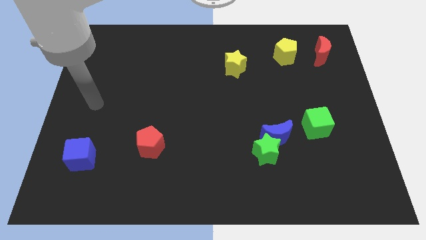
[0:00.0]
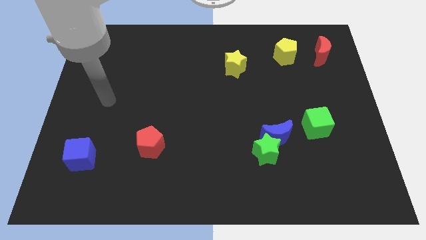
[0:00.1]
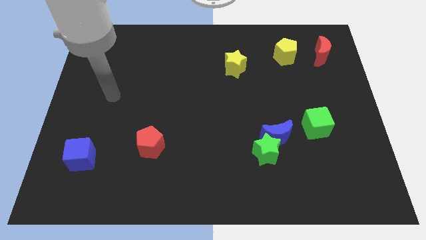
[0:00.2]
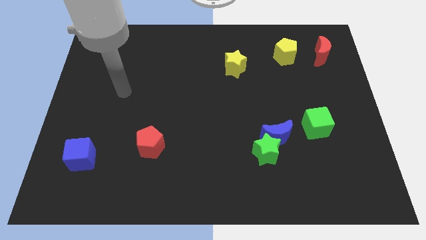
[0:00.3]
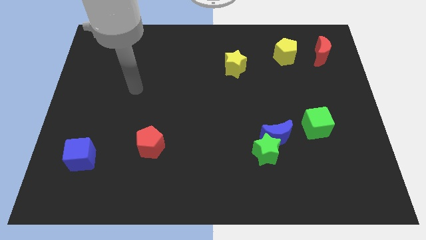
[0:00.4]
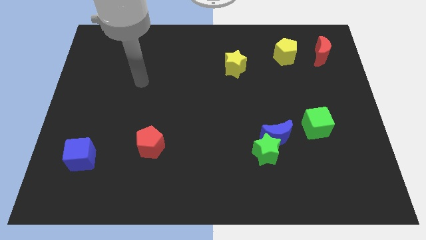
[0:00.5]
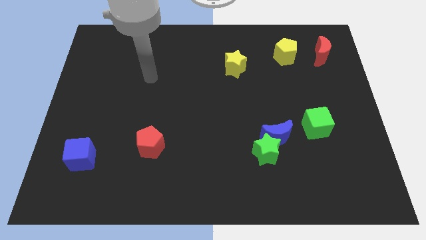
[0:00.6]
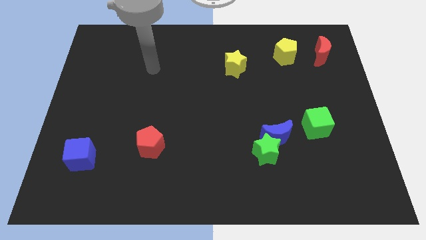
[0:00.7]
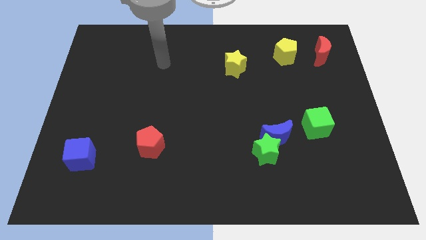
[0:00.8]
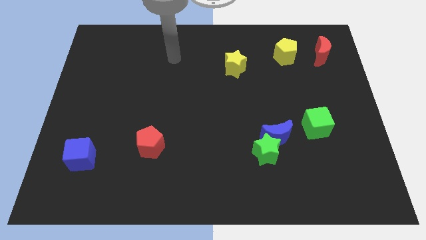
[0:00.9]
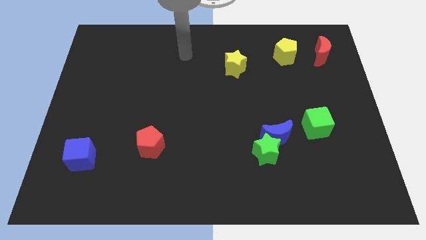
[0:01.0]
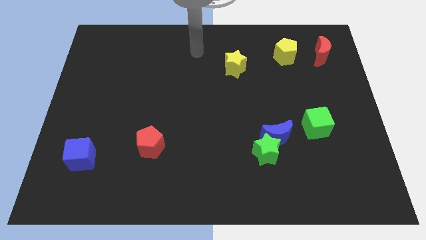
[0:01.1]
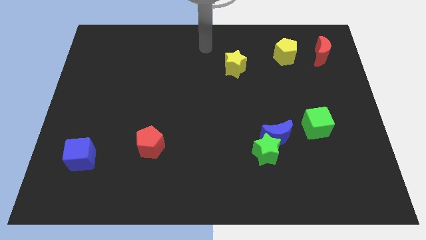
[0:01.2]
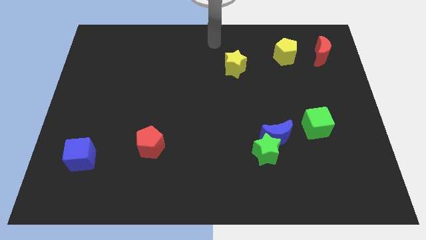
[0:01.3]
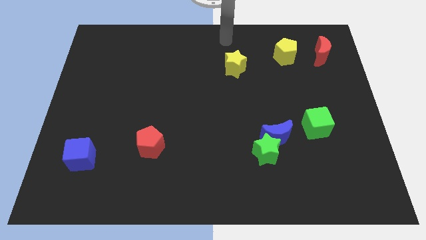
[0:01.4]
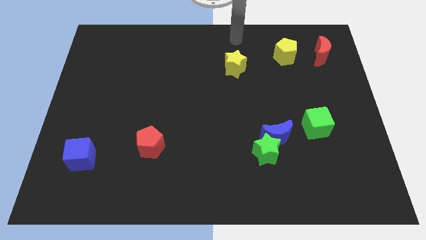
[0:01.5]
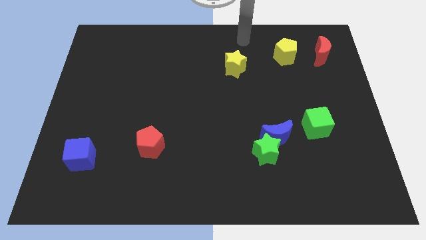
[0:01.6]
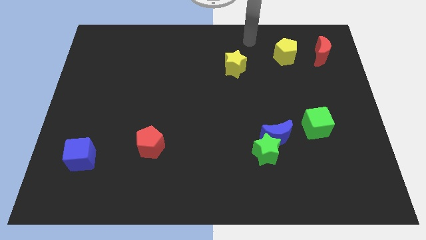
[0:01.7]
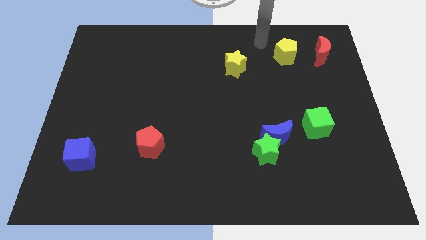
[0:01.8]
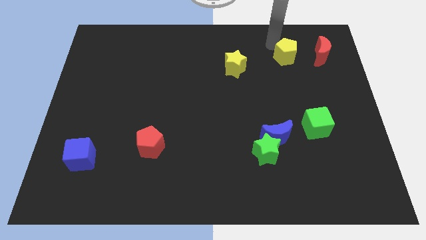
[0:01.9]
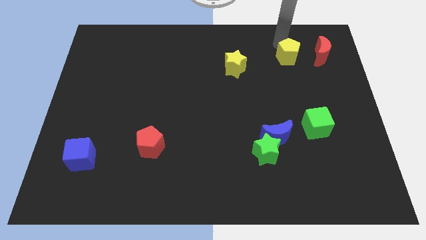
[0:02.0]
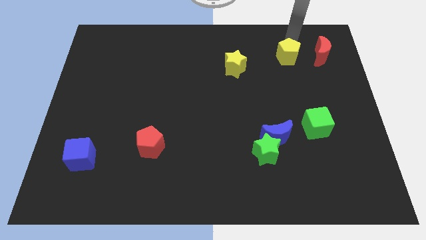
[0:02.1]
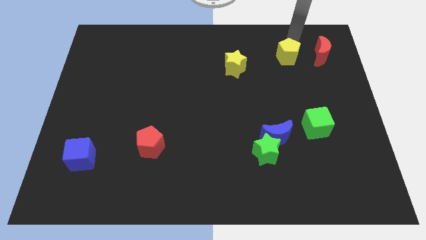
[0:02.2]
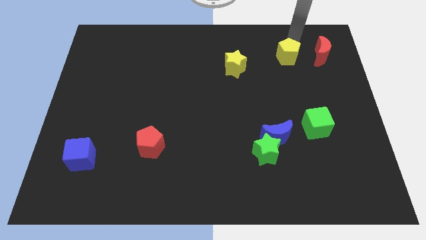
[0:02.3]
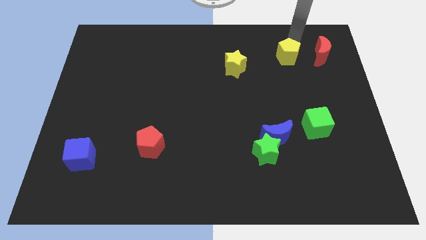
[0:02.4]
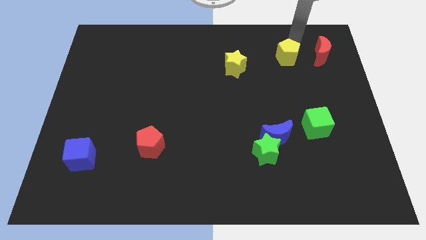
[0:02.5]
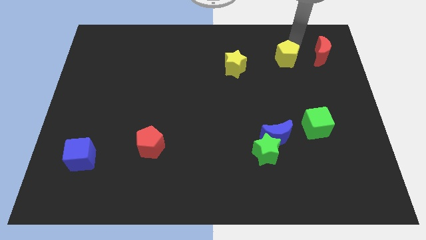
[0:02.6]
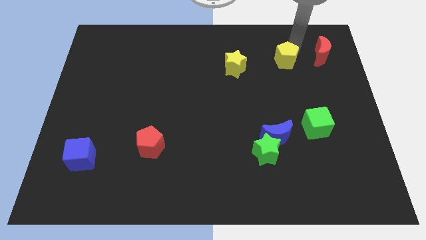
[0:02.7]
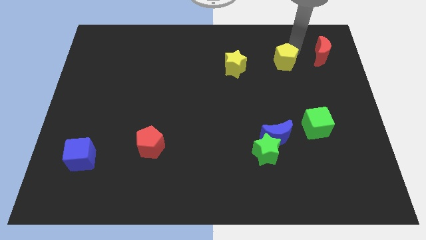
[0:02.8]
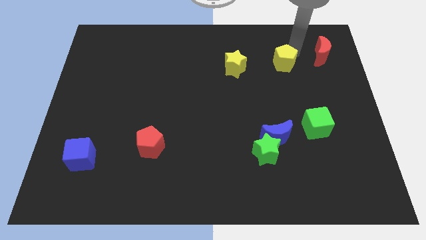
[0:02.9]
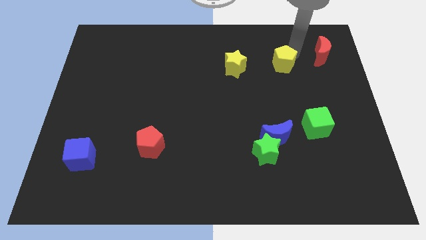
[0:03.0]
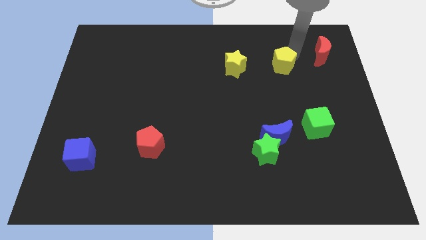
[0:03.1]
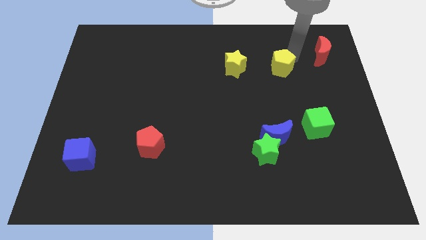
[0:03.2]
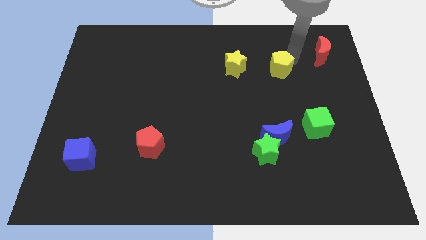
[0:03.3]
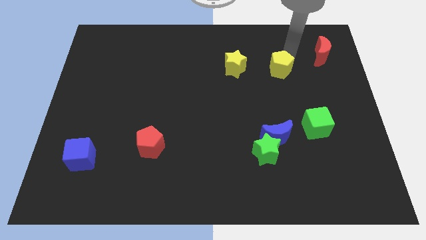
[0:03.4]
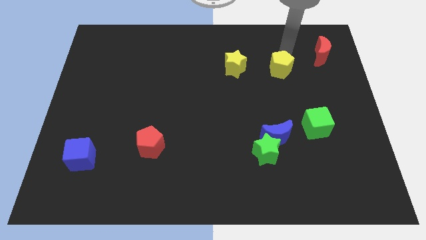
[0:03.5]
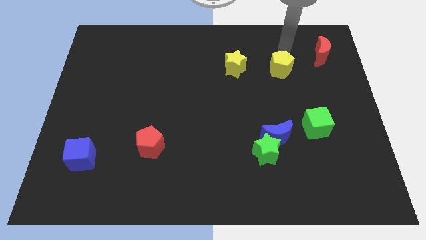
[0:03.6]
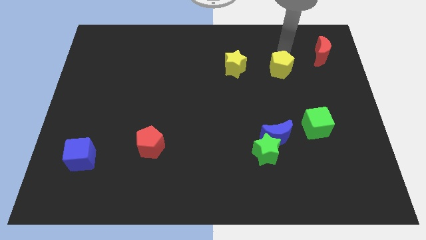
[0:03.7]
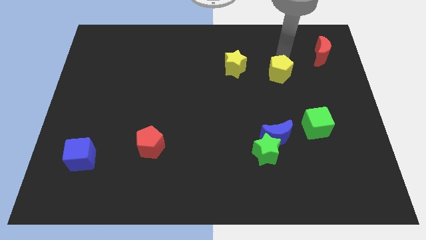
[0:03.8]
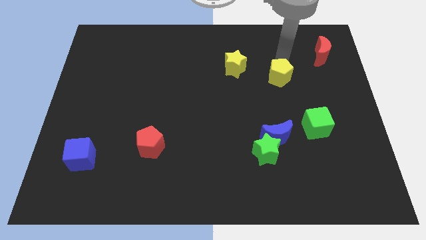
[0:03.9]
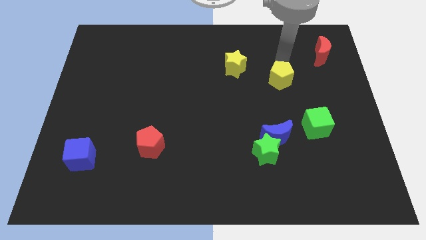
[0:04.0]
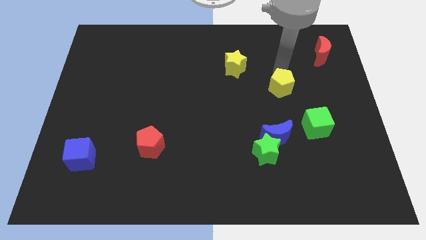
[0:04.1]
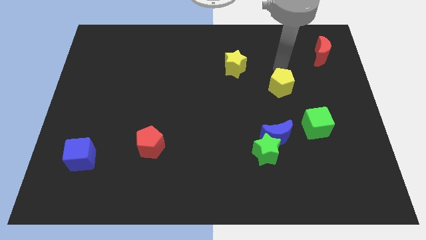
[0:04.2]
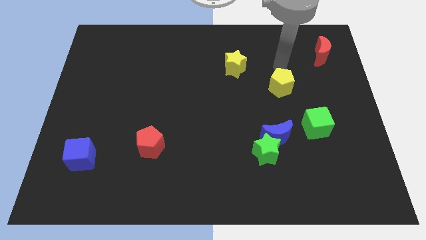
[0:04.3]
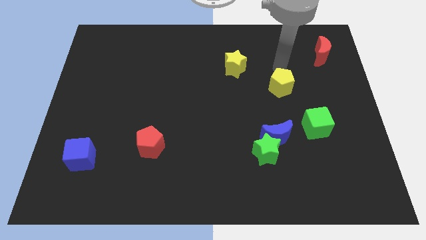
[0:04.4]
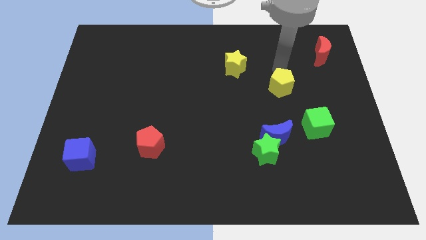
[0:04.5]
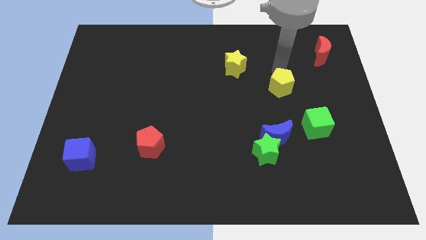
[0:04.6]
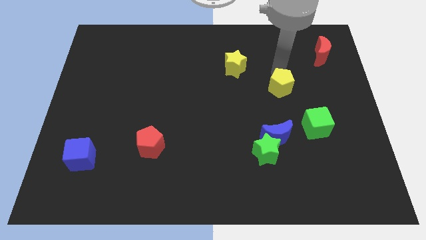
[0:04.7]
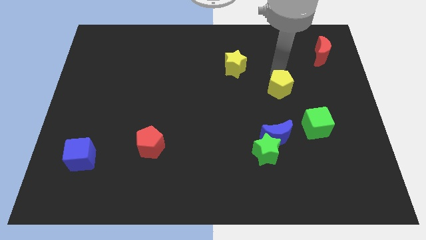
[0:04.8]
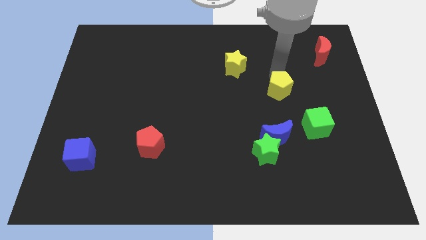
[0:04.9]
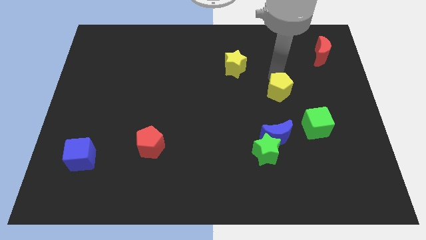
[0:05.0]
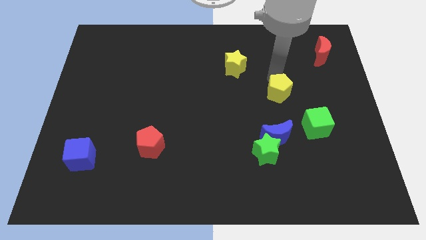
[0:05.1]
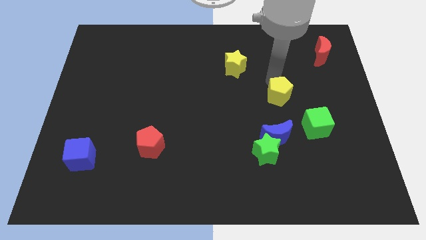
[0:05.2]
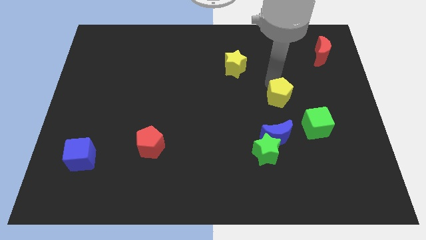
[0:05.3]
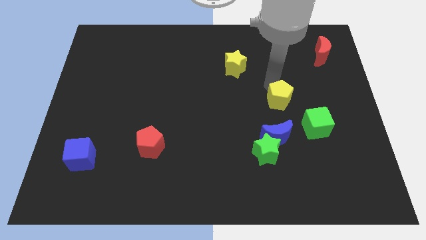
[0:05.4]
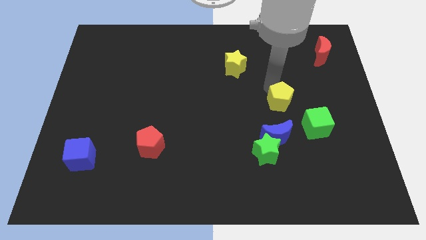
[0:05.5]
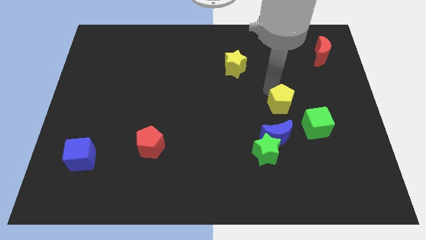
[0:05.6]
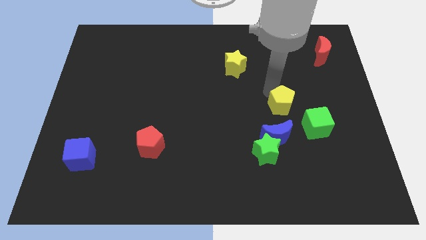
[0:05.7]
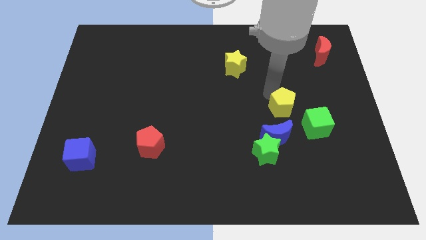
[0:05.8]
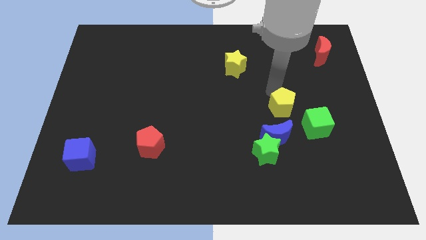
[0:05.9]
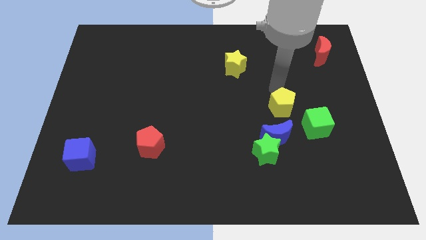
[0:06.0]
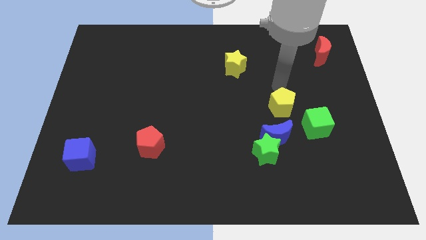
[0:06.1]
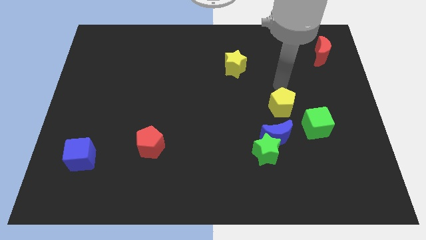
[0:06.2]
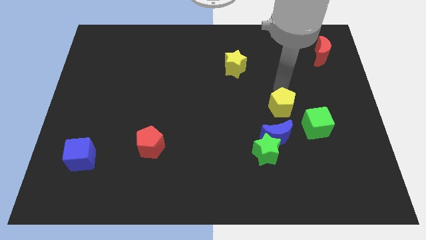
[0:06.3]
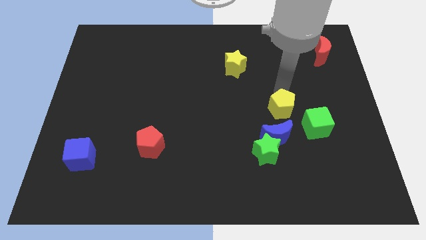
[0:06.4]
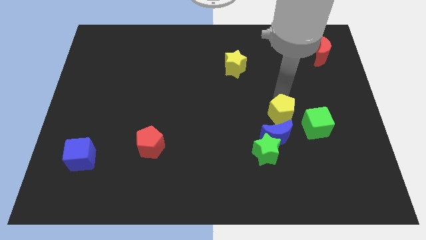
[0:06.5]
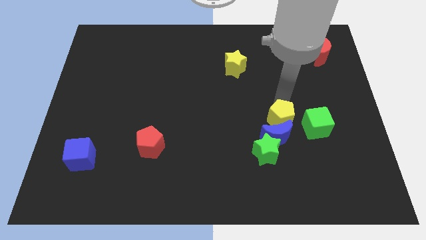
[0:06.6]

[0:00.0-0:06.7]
slide the yellow pentagon close to the blue moon

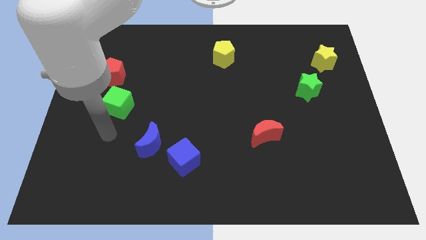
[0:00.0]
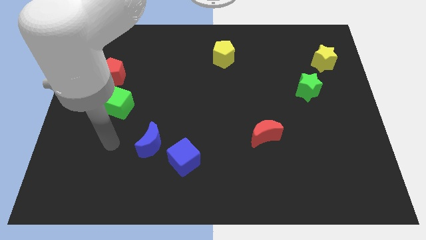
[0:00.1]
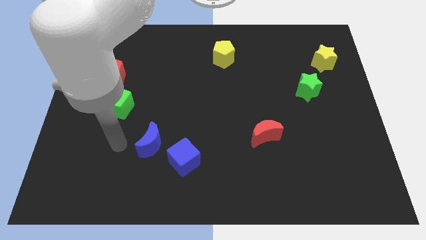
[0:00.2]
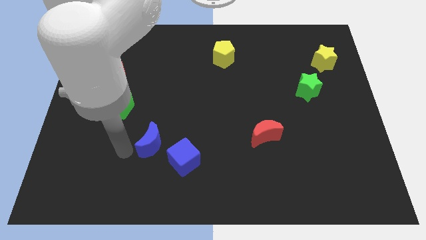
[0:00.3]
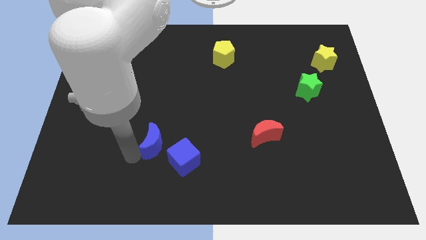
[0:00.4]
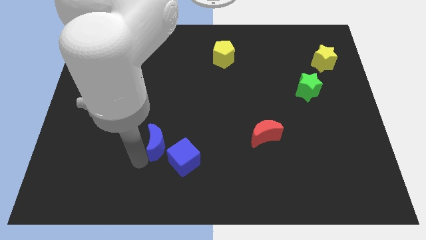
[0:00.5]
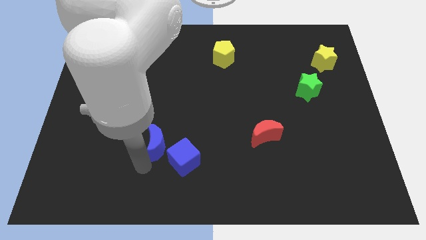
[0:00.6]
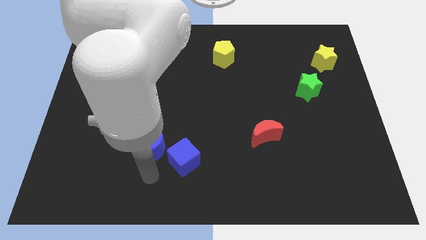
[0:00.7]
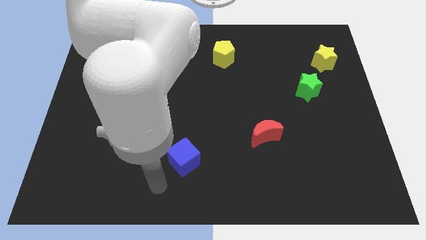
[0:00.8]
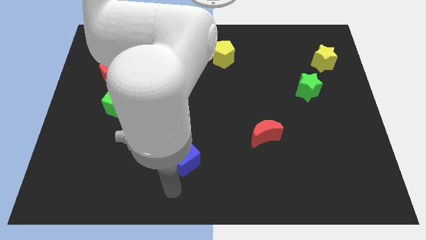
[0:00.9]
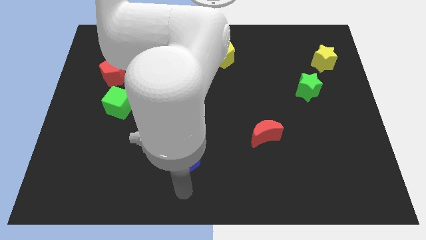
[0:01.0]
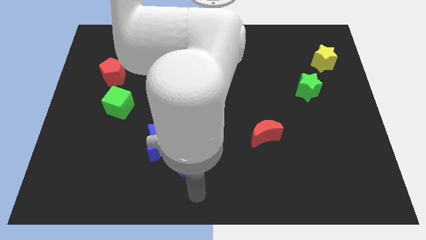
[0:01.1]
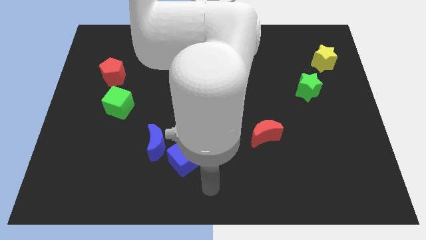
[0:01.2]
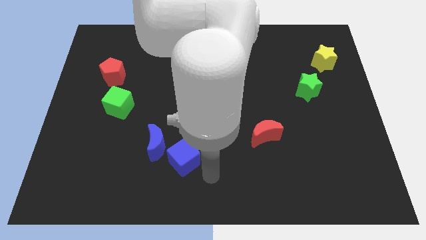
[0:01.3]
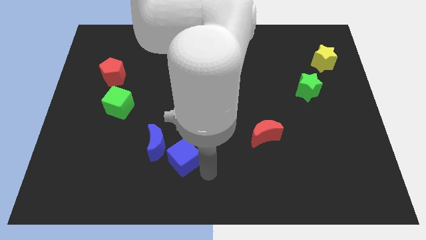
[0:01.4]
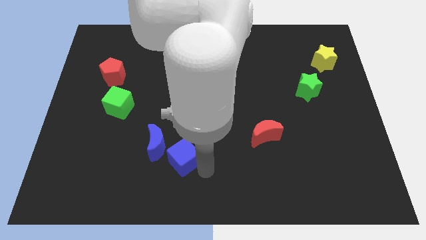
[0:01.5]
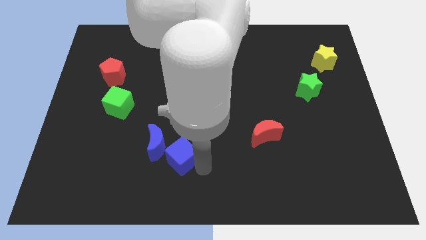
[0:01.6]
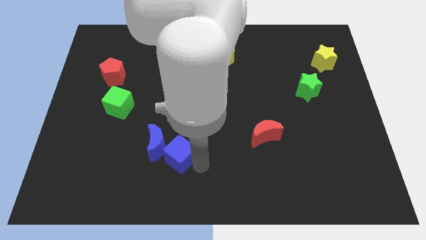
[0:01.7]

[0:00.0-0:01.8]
move the blue cube towards the blue moon
